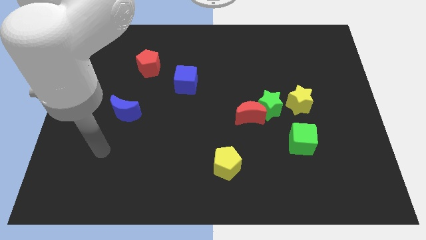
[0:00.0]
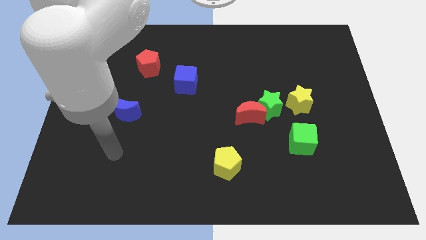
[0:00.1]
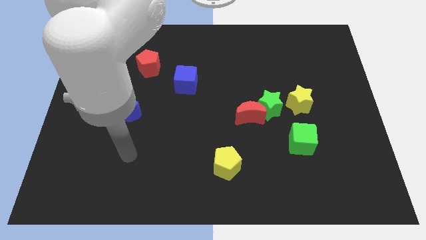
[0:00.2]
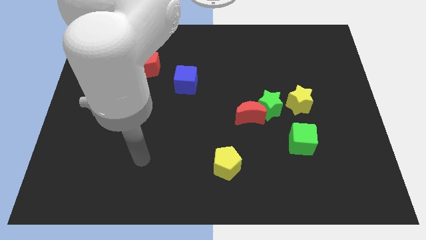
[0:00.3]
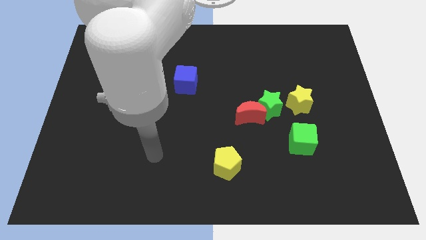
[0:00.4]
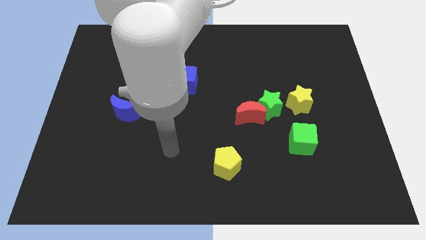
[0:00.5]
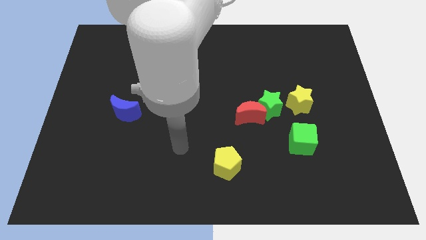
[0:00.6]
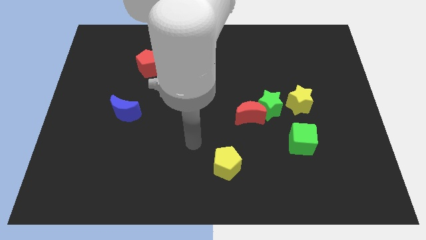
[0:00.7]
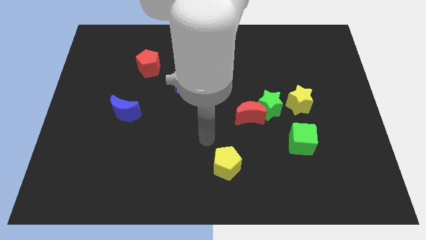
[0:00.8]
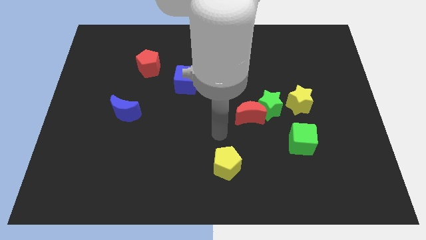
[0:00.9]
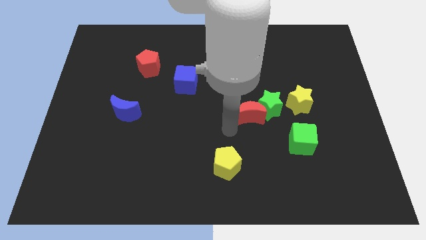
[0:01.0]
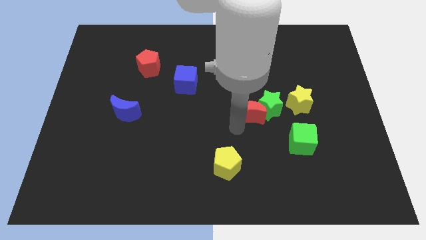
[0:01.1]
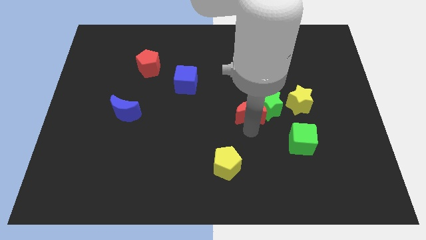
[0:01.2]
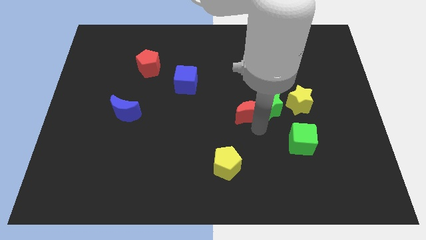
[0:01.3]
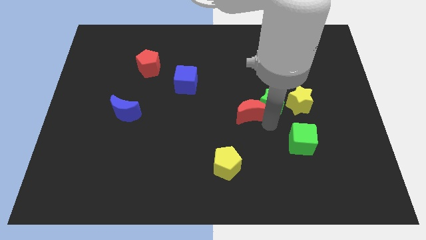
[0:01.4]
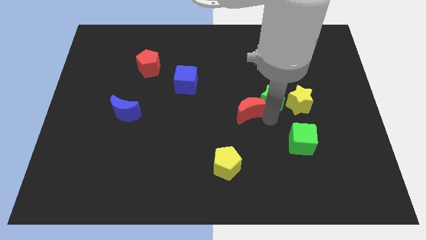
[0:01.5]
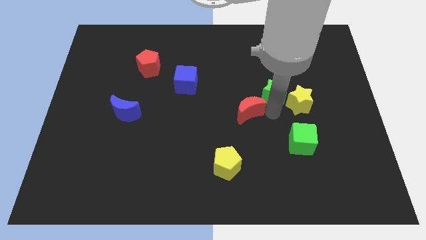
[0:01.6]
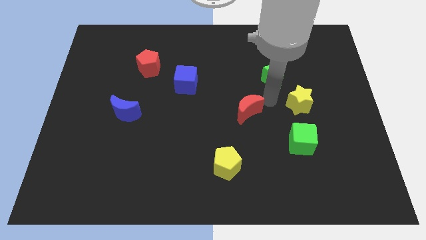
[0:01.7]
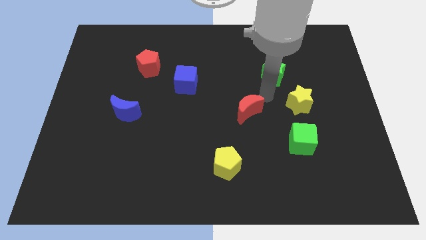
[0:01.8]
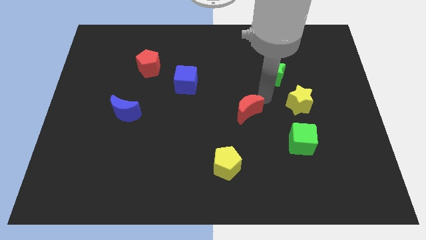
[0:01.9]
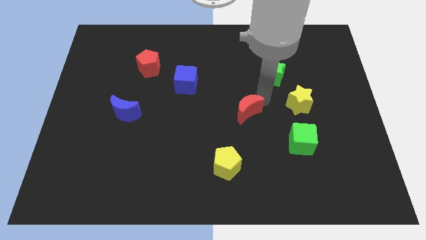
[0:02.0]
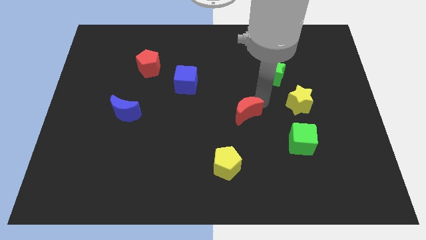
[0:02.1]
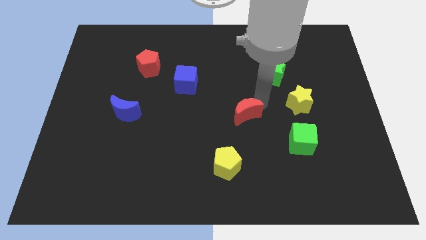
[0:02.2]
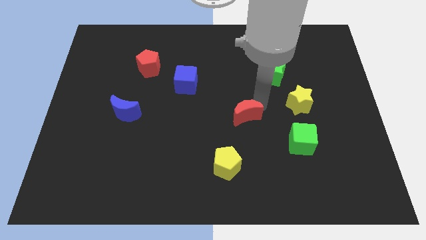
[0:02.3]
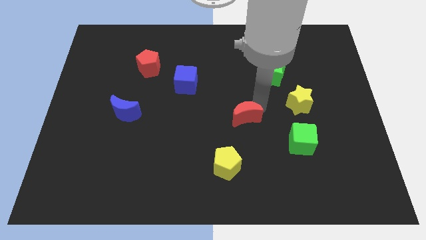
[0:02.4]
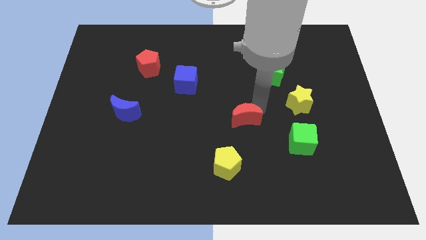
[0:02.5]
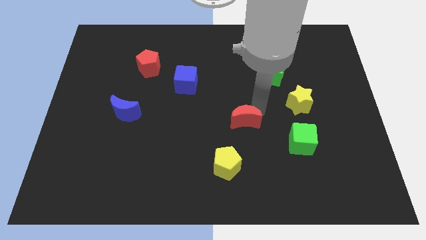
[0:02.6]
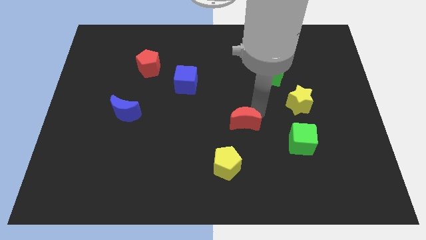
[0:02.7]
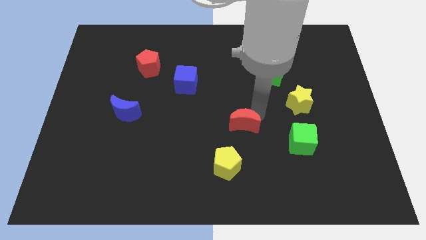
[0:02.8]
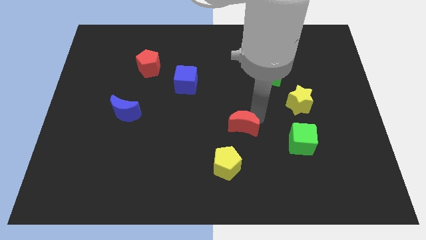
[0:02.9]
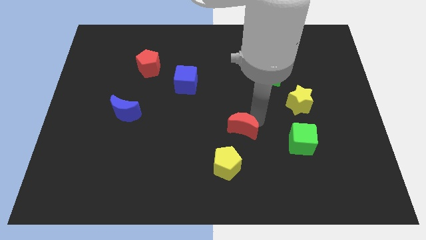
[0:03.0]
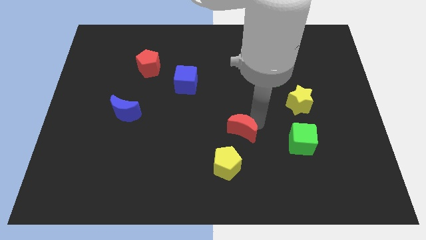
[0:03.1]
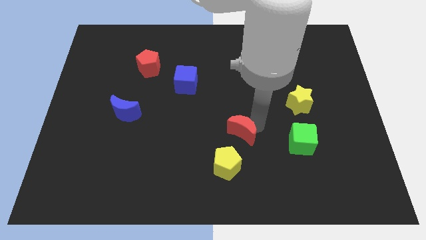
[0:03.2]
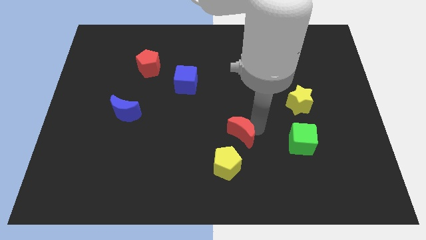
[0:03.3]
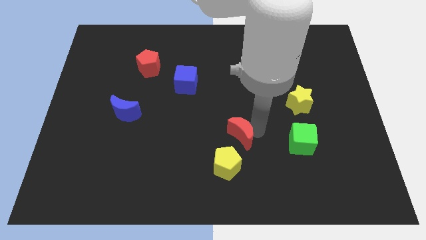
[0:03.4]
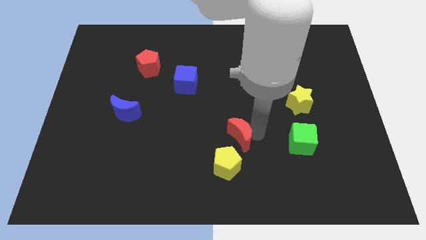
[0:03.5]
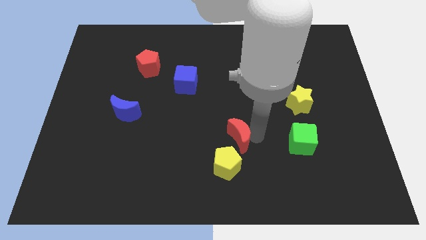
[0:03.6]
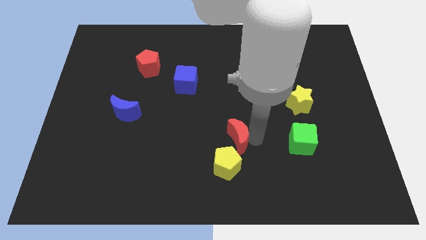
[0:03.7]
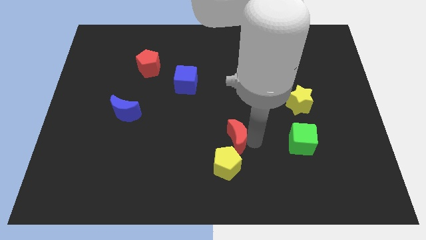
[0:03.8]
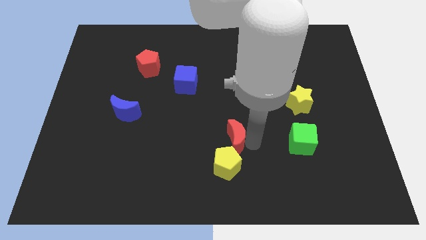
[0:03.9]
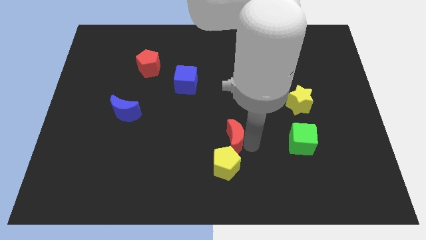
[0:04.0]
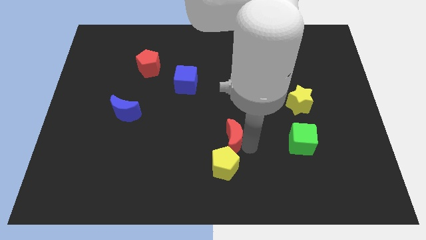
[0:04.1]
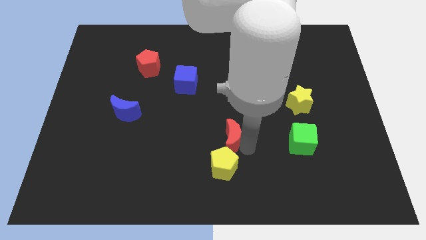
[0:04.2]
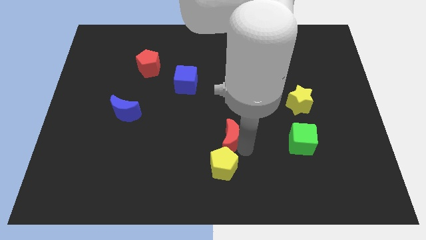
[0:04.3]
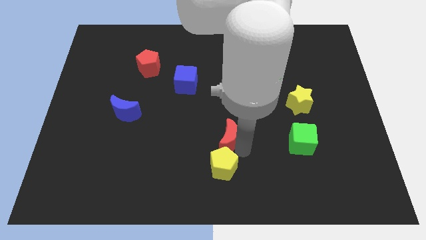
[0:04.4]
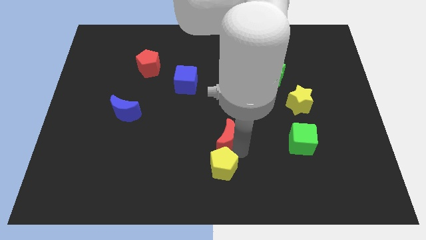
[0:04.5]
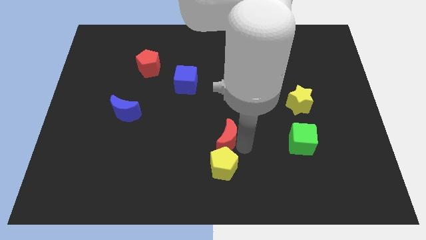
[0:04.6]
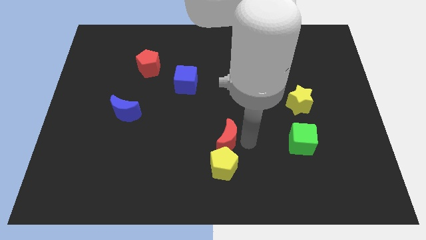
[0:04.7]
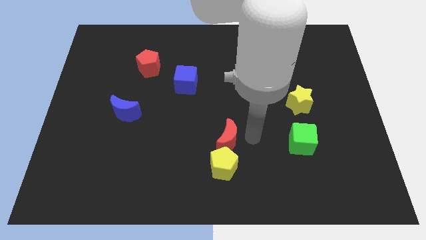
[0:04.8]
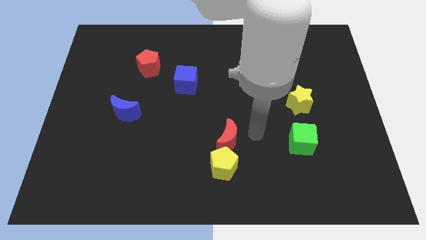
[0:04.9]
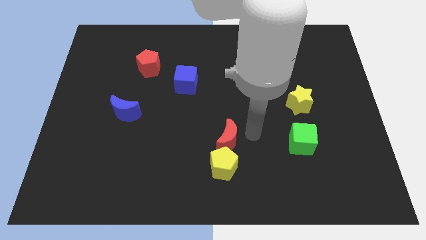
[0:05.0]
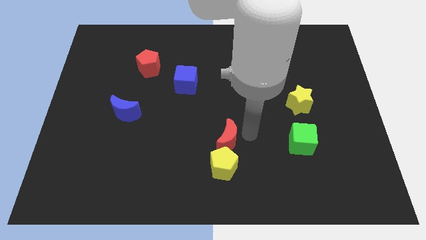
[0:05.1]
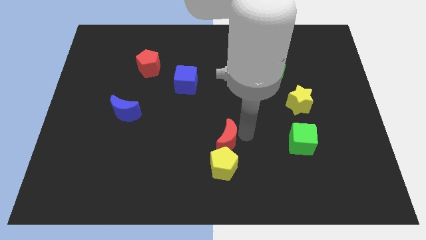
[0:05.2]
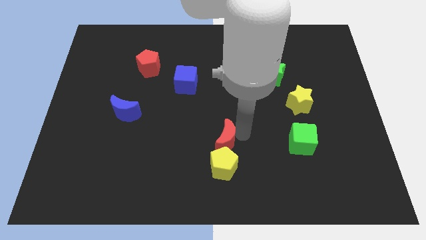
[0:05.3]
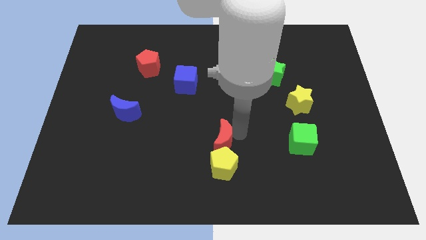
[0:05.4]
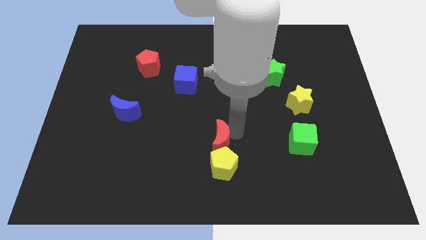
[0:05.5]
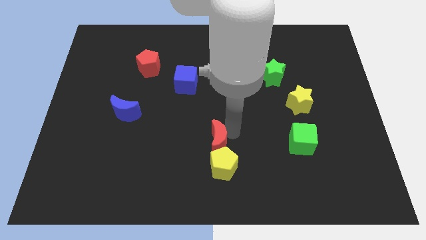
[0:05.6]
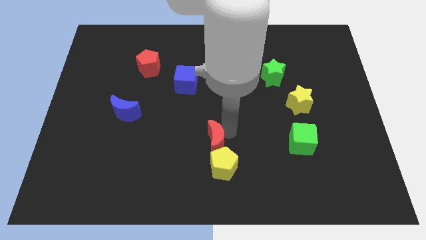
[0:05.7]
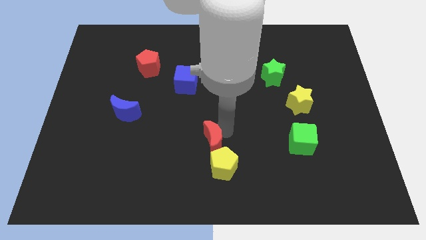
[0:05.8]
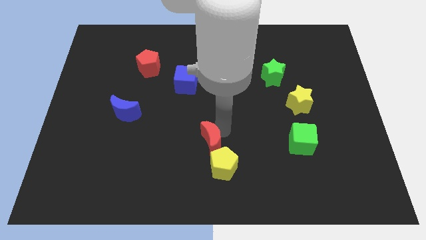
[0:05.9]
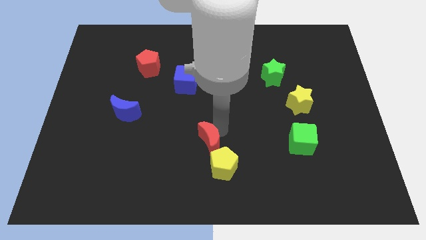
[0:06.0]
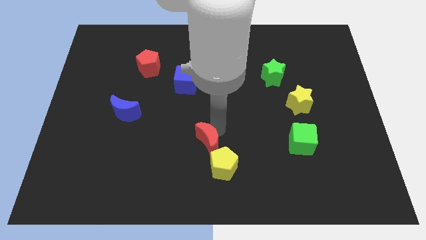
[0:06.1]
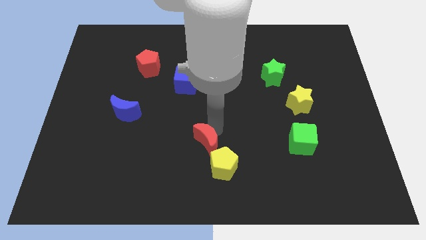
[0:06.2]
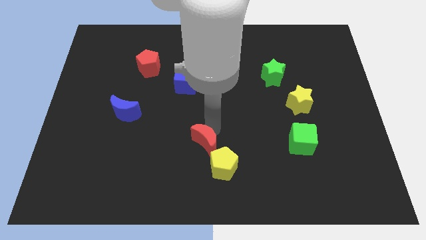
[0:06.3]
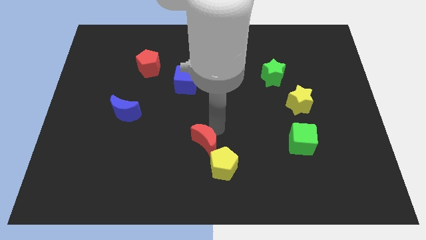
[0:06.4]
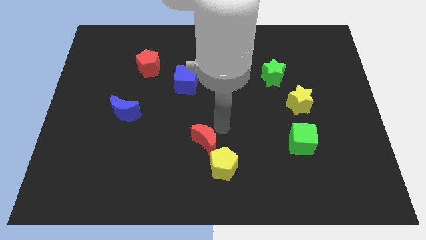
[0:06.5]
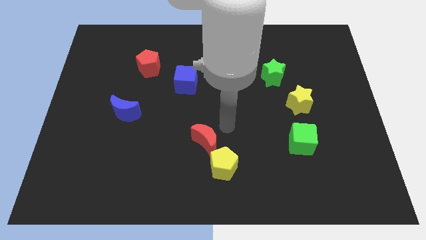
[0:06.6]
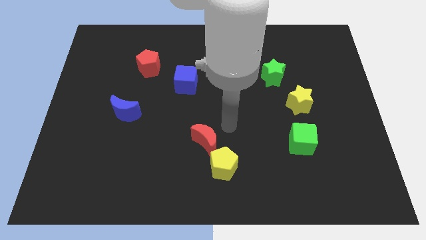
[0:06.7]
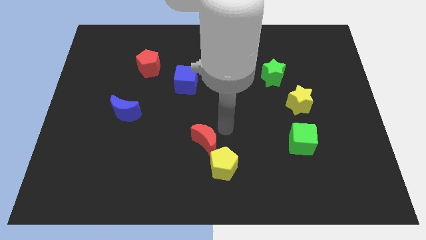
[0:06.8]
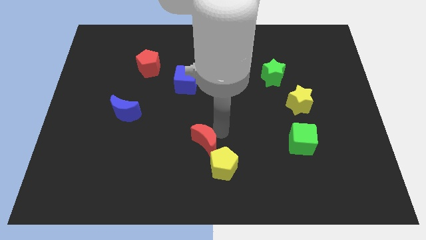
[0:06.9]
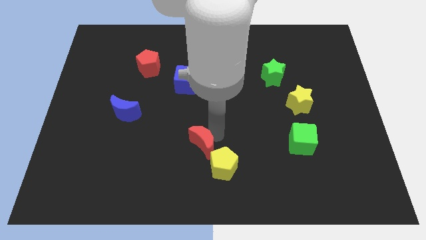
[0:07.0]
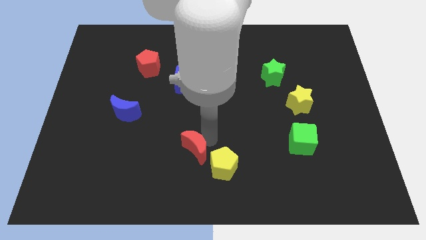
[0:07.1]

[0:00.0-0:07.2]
push the red moon to the left side of the yellow pentagon
